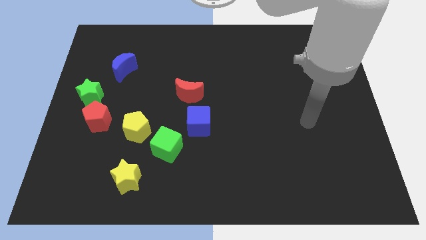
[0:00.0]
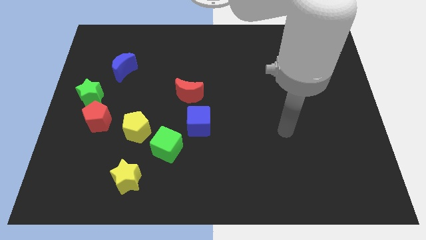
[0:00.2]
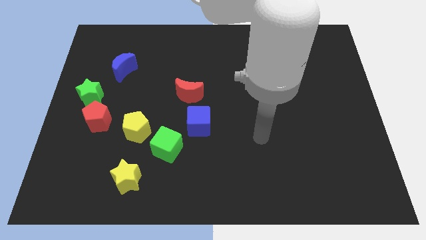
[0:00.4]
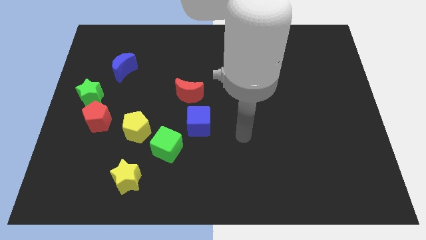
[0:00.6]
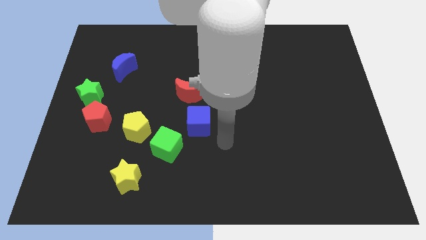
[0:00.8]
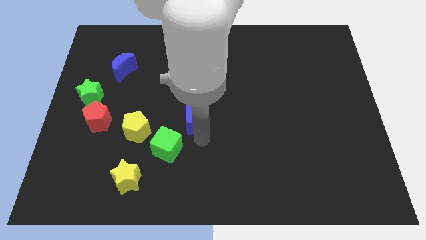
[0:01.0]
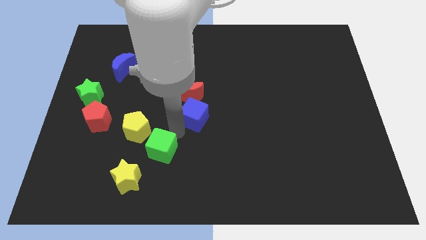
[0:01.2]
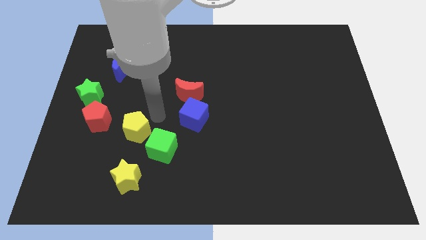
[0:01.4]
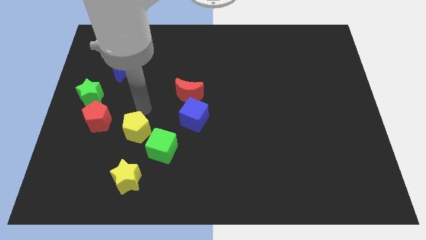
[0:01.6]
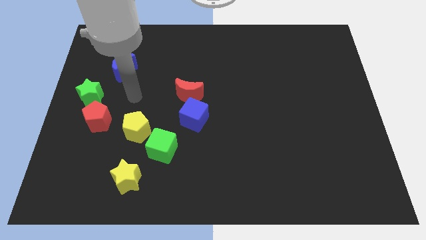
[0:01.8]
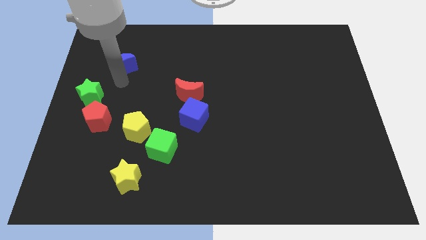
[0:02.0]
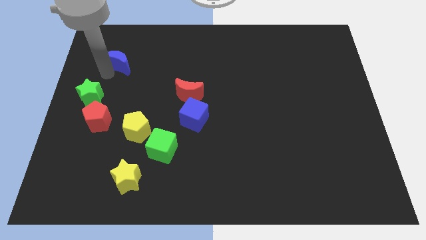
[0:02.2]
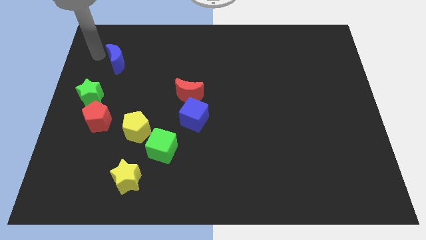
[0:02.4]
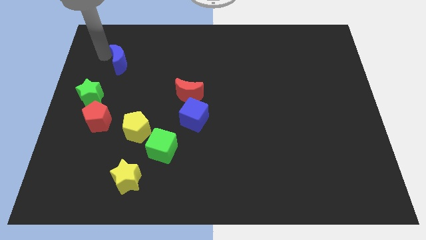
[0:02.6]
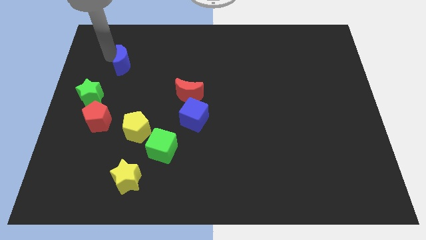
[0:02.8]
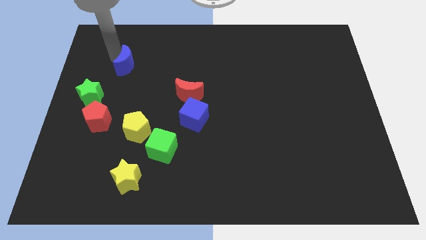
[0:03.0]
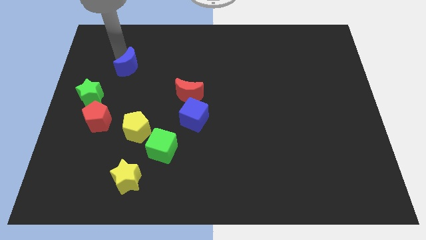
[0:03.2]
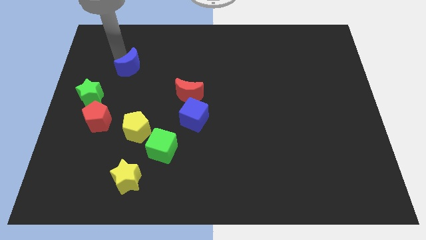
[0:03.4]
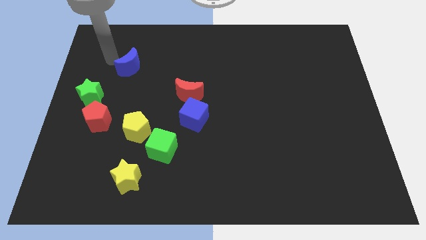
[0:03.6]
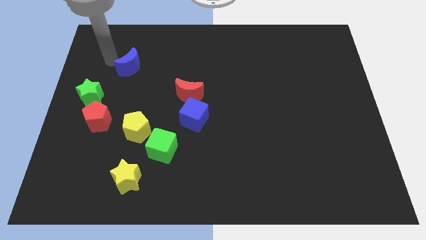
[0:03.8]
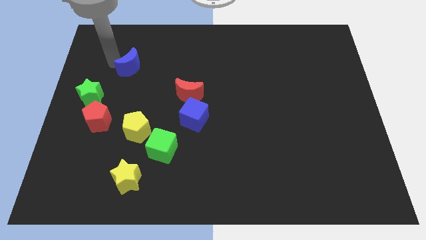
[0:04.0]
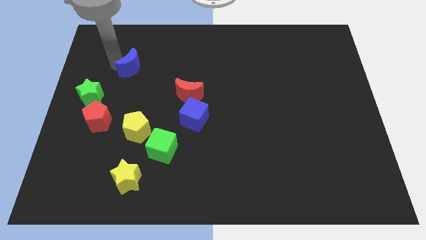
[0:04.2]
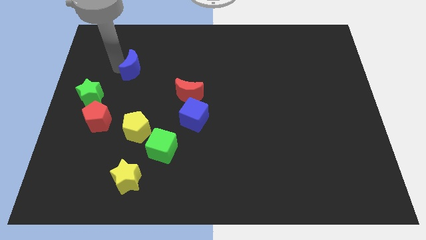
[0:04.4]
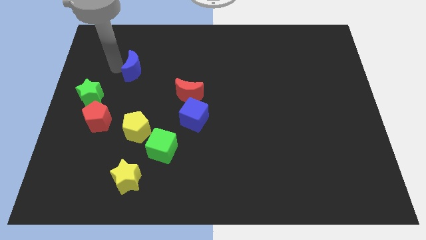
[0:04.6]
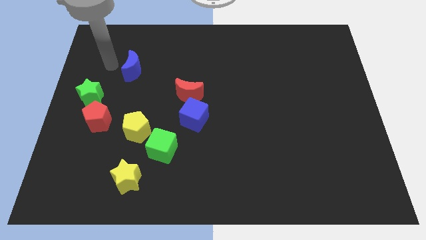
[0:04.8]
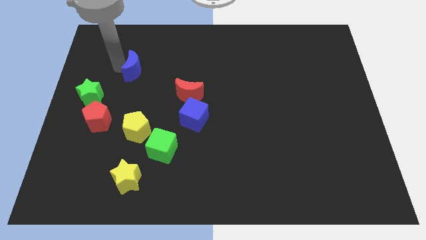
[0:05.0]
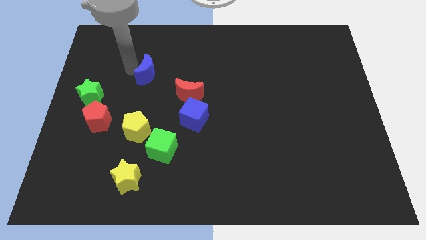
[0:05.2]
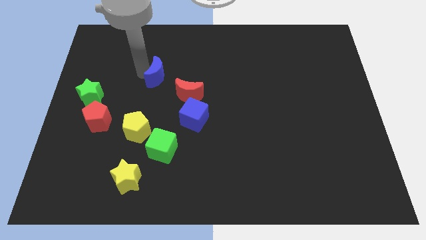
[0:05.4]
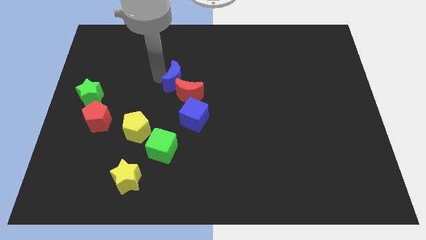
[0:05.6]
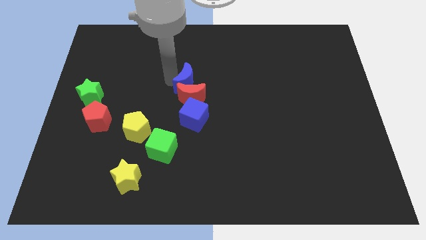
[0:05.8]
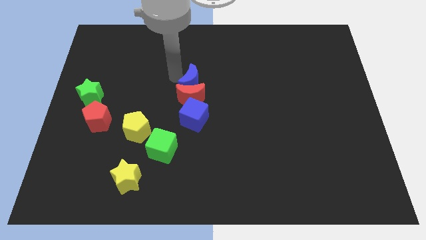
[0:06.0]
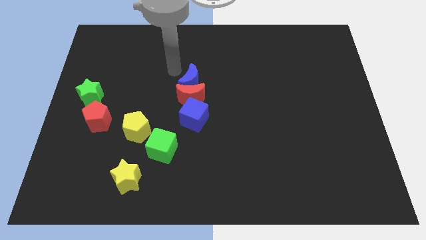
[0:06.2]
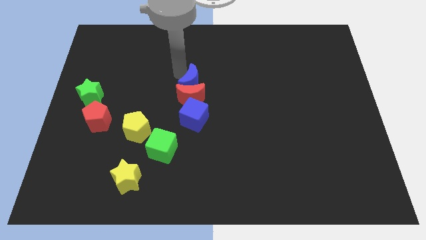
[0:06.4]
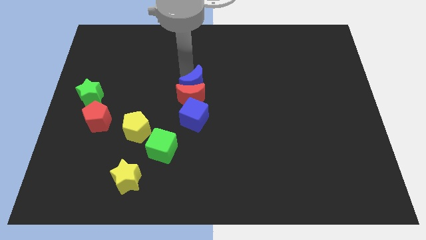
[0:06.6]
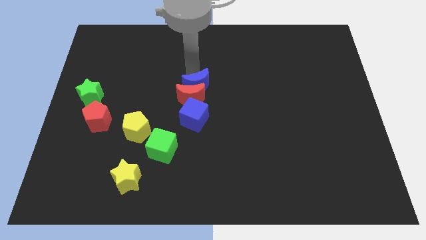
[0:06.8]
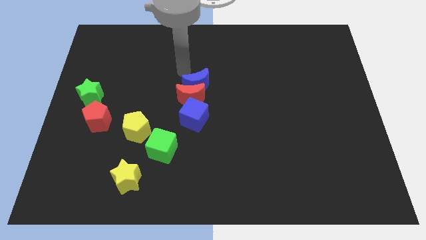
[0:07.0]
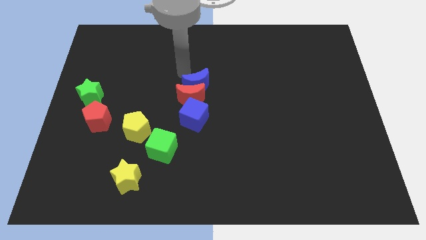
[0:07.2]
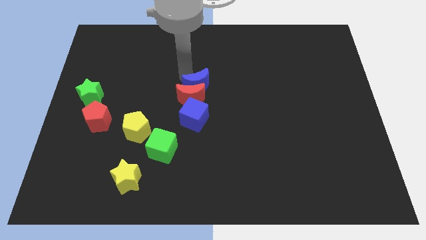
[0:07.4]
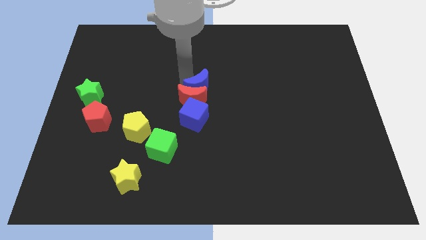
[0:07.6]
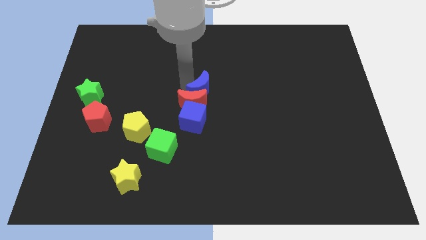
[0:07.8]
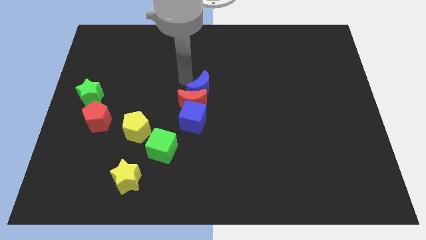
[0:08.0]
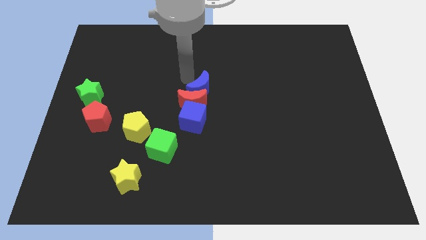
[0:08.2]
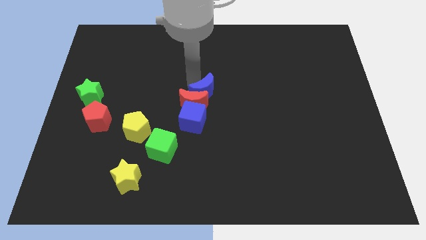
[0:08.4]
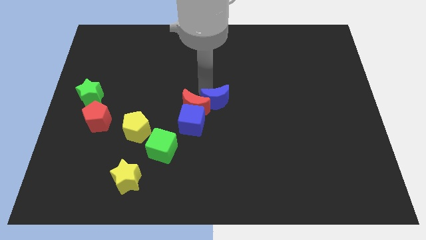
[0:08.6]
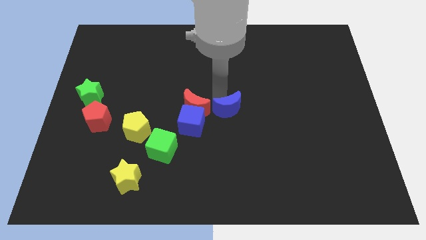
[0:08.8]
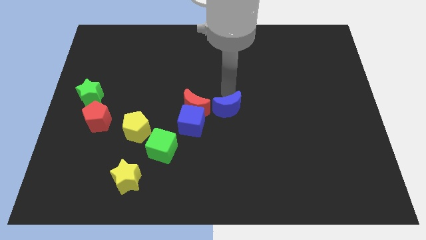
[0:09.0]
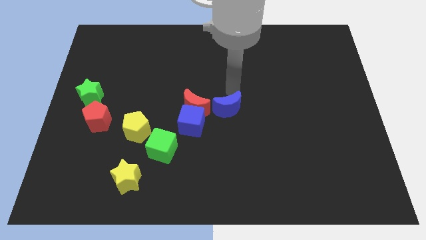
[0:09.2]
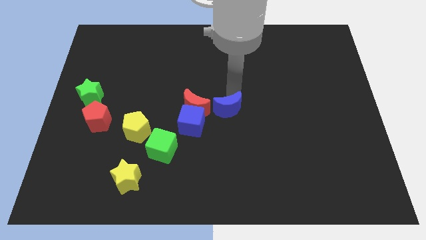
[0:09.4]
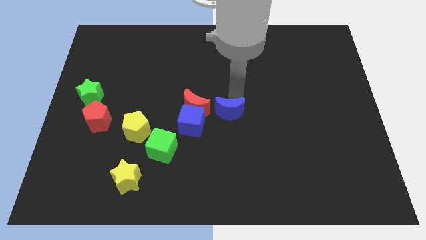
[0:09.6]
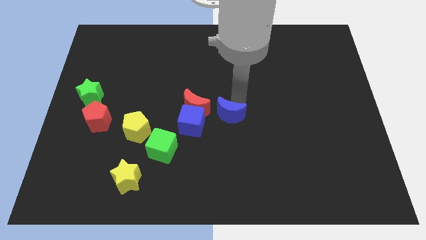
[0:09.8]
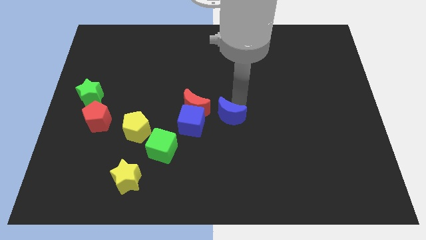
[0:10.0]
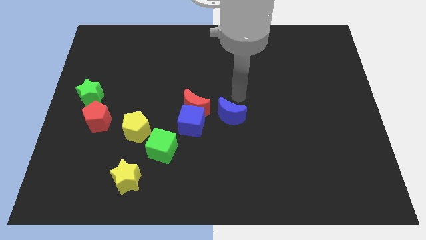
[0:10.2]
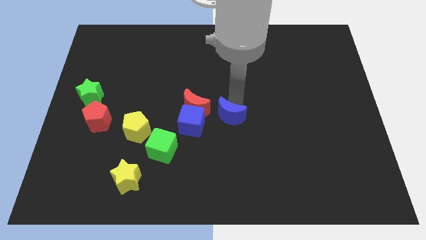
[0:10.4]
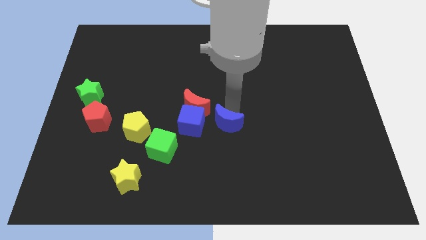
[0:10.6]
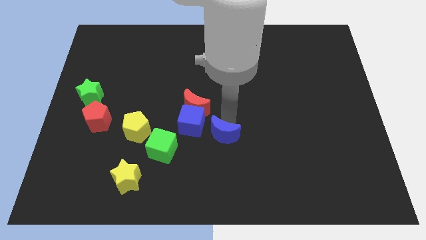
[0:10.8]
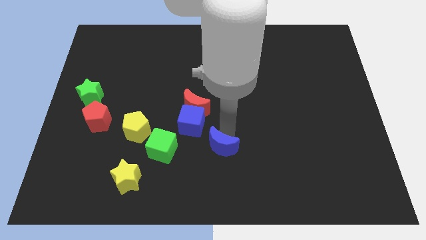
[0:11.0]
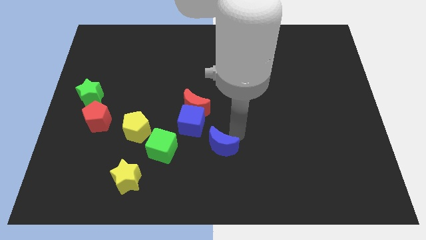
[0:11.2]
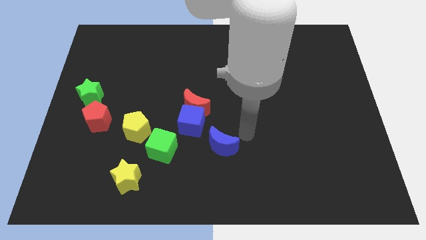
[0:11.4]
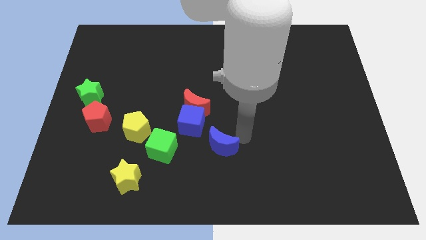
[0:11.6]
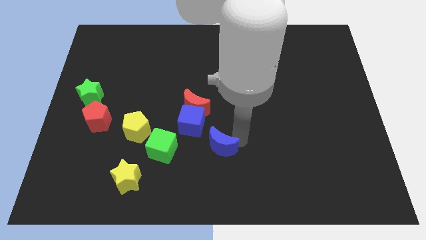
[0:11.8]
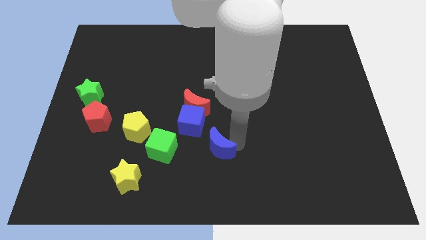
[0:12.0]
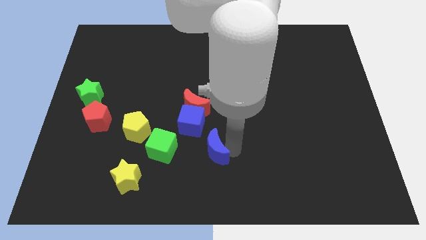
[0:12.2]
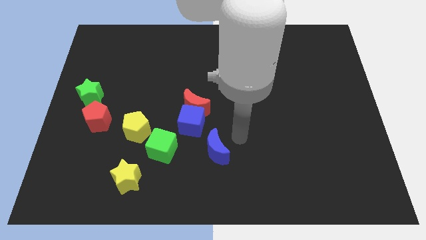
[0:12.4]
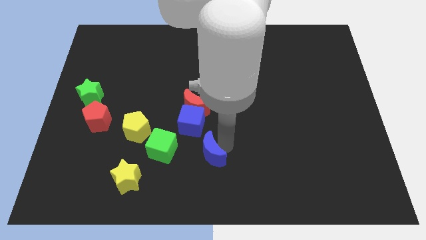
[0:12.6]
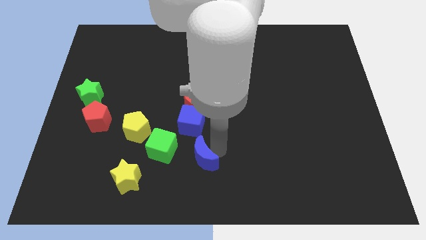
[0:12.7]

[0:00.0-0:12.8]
slide the blue moon to the bottom right side of the green cube
